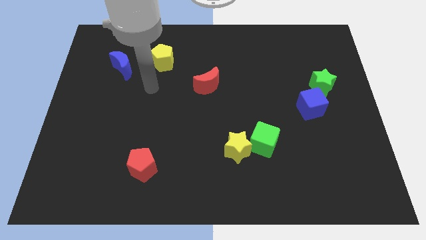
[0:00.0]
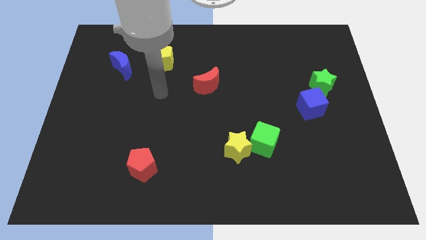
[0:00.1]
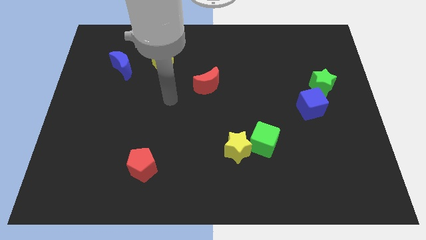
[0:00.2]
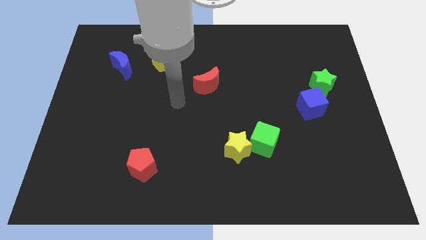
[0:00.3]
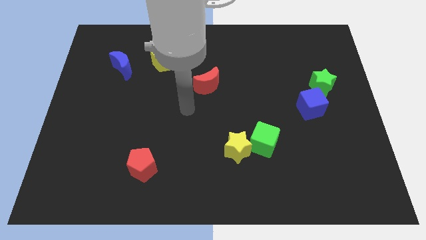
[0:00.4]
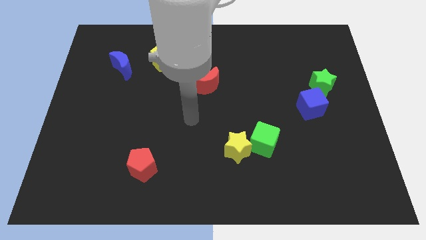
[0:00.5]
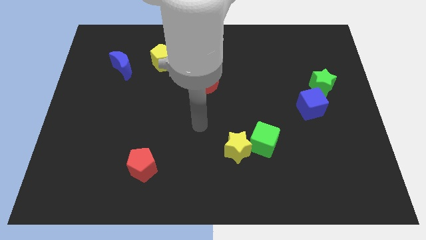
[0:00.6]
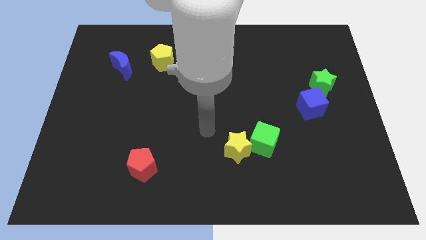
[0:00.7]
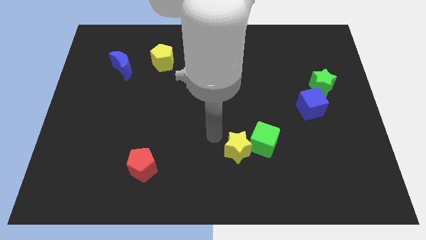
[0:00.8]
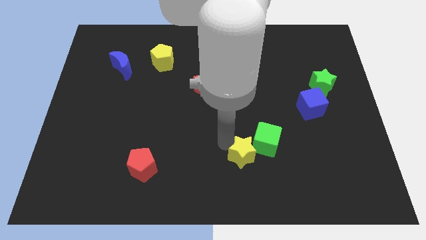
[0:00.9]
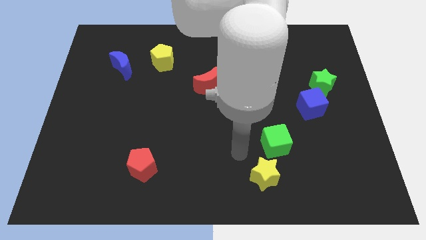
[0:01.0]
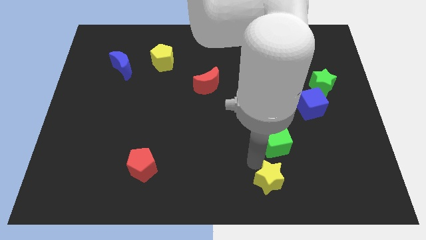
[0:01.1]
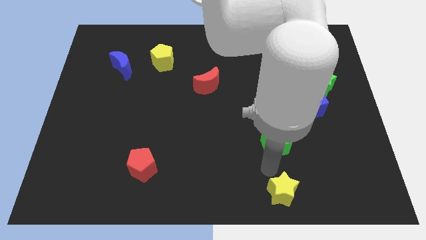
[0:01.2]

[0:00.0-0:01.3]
pull the green cube apart from the yellow star

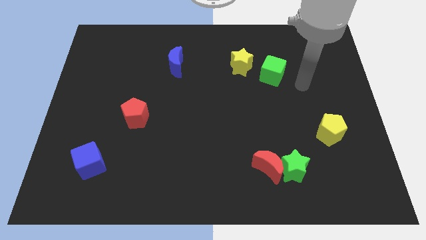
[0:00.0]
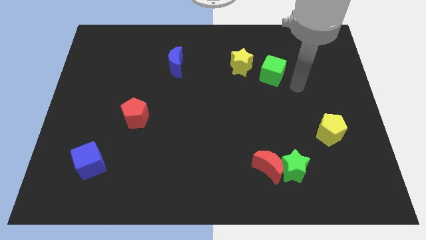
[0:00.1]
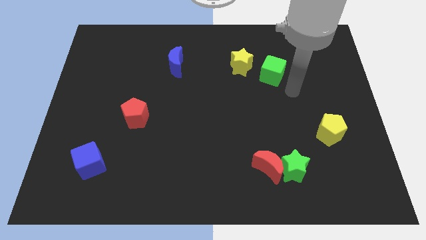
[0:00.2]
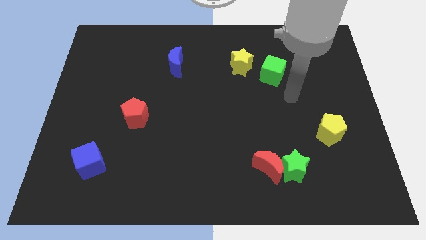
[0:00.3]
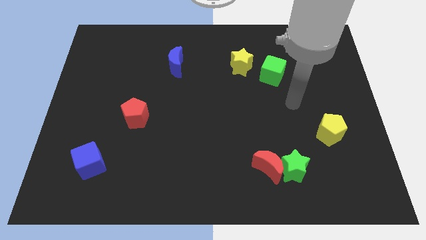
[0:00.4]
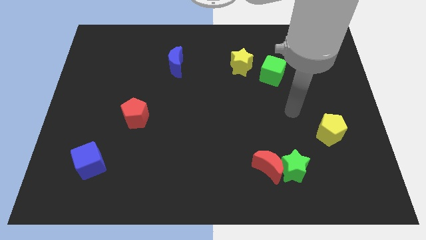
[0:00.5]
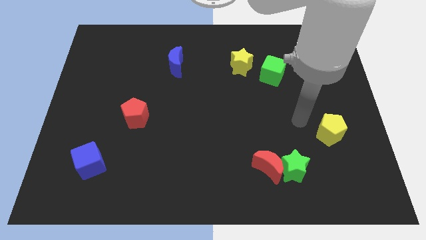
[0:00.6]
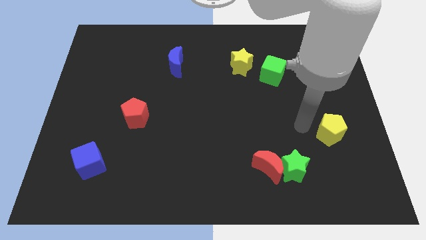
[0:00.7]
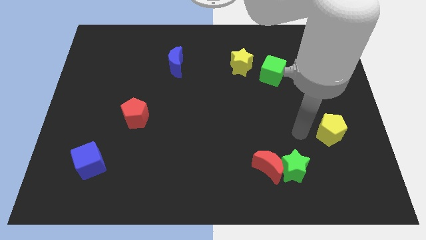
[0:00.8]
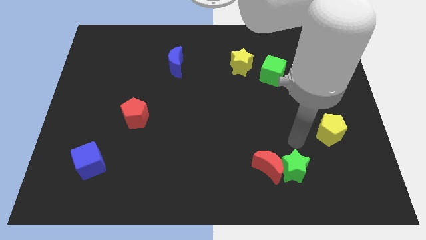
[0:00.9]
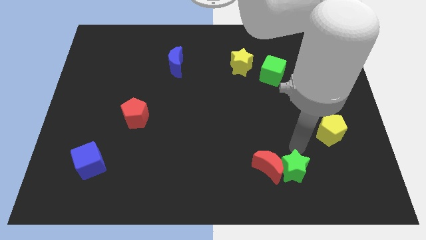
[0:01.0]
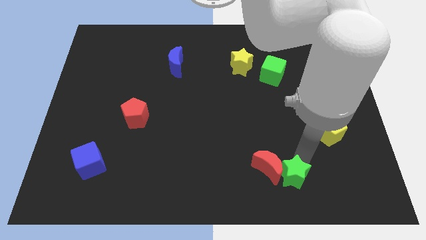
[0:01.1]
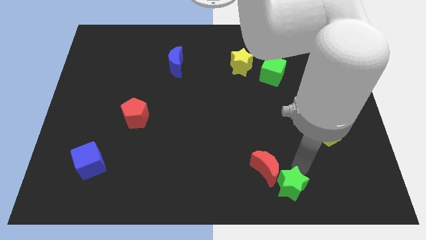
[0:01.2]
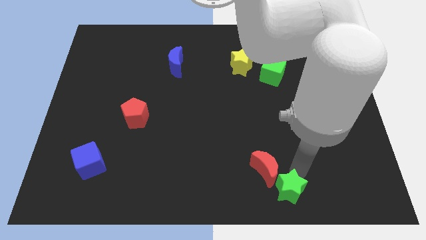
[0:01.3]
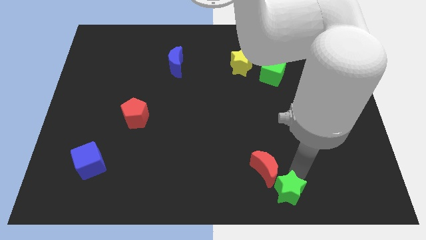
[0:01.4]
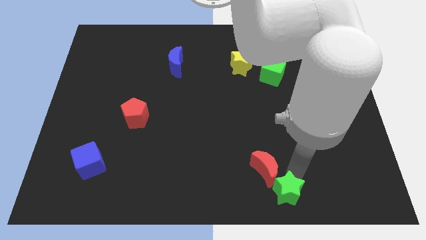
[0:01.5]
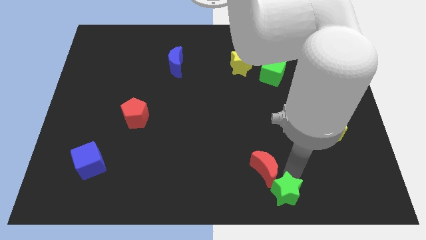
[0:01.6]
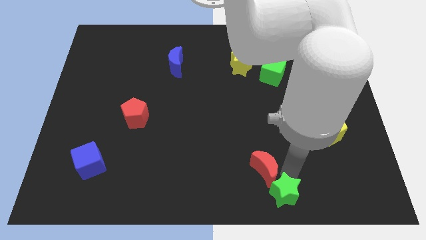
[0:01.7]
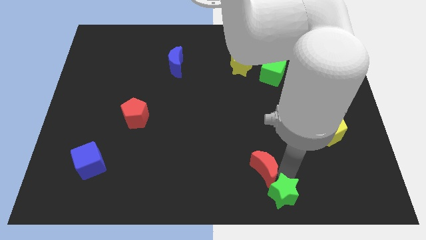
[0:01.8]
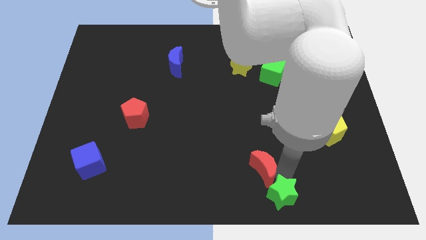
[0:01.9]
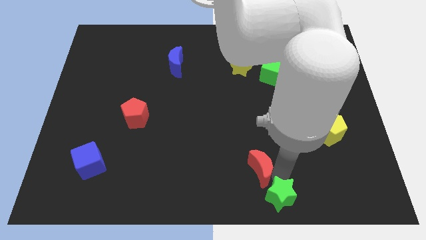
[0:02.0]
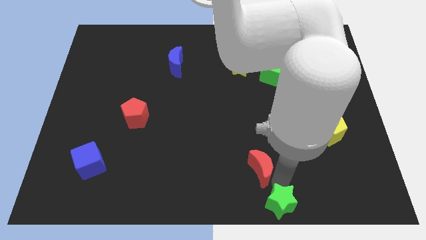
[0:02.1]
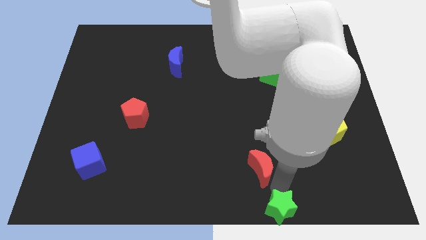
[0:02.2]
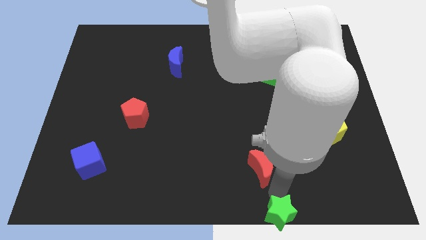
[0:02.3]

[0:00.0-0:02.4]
pull the red moon apart from the green star

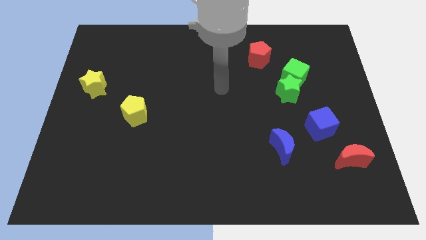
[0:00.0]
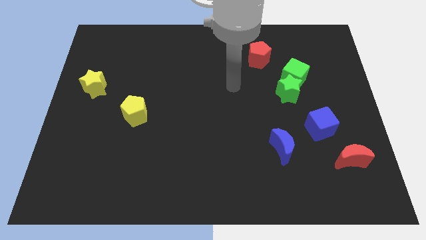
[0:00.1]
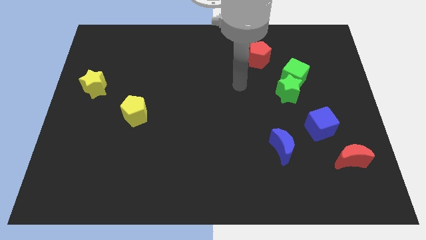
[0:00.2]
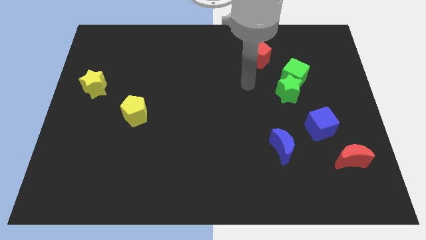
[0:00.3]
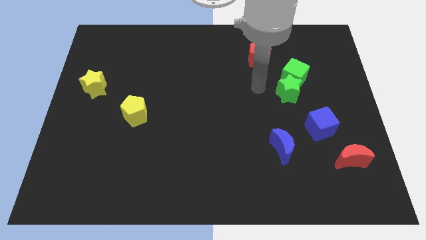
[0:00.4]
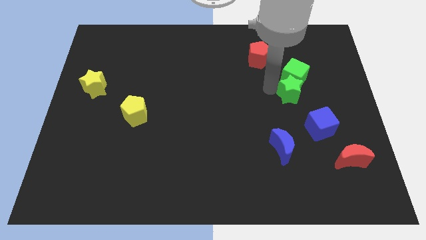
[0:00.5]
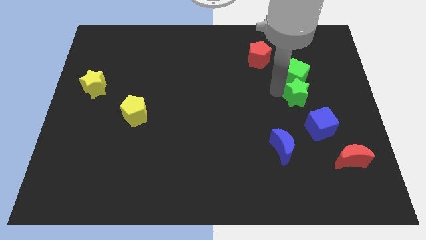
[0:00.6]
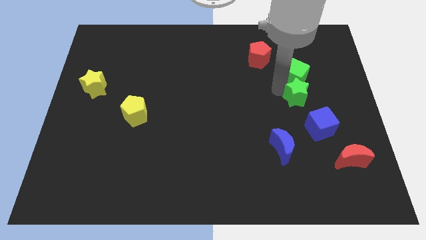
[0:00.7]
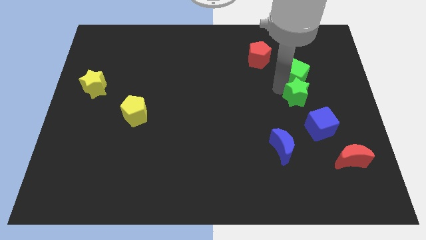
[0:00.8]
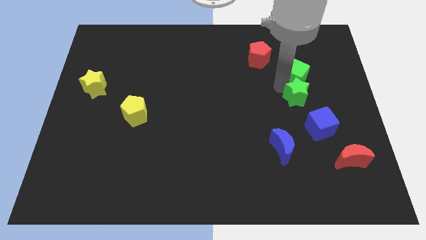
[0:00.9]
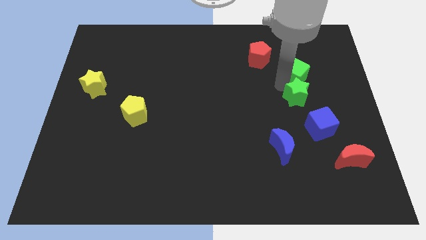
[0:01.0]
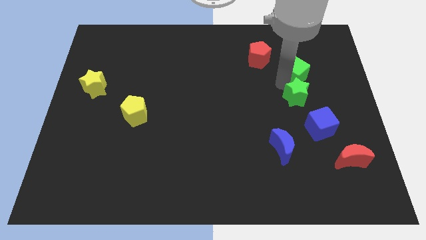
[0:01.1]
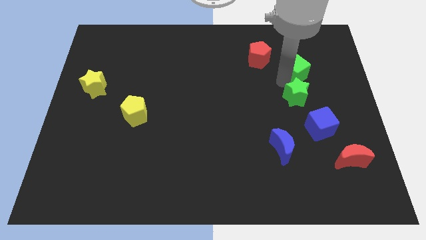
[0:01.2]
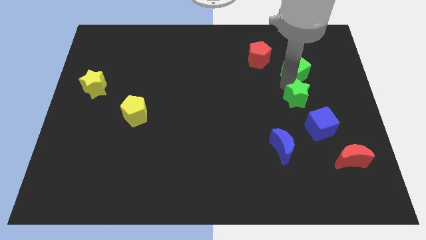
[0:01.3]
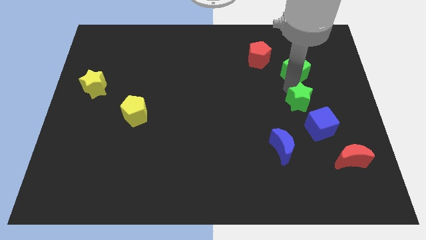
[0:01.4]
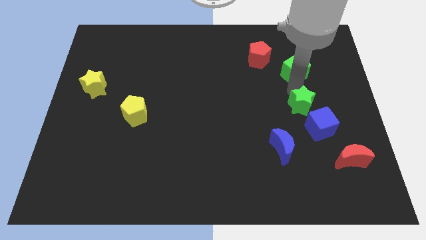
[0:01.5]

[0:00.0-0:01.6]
pull the green cube apart from the green star

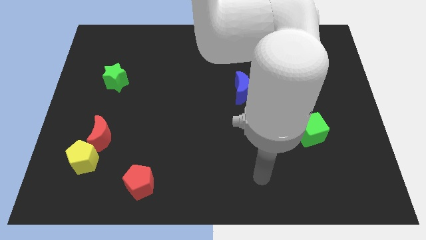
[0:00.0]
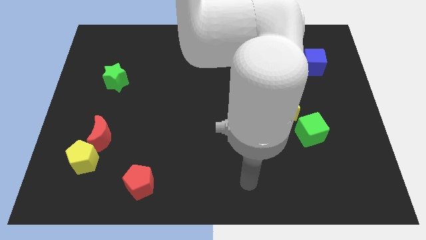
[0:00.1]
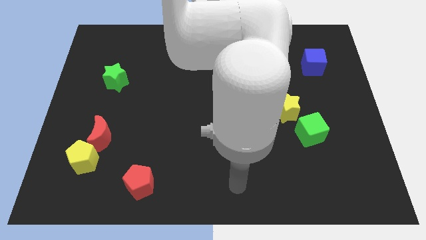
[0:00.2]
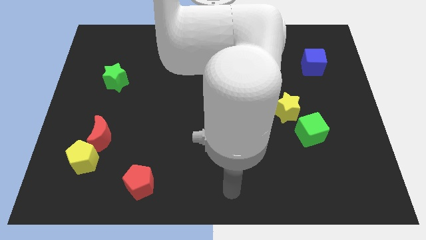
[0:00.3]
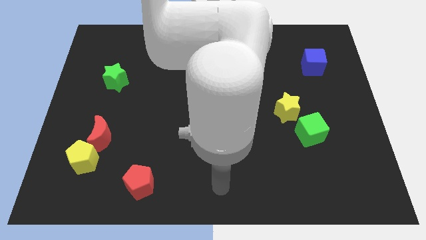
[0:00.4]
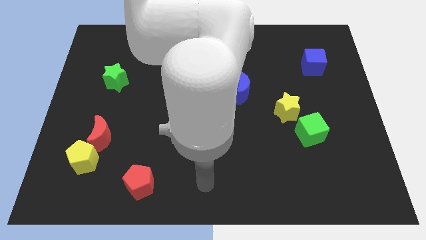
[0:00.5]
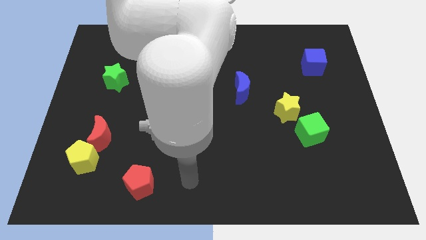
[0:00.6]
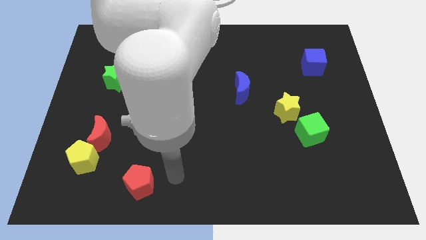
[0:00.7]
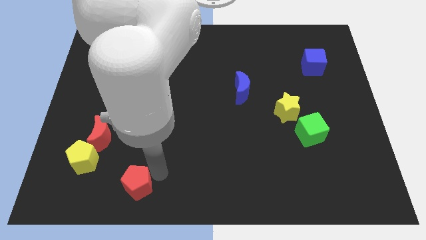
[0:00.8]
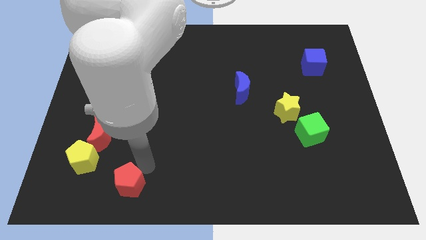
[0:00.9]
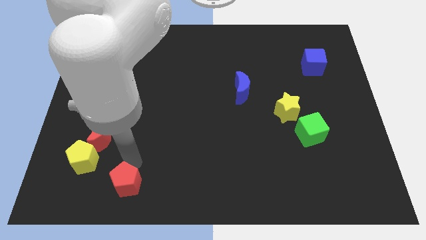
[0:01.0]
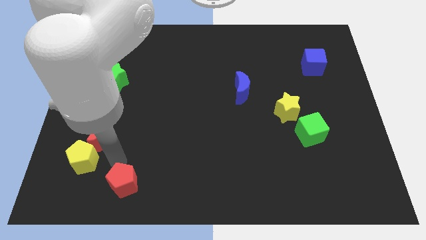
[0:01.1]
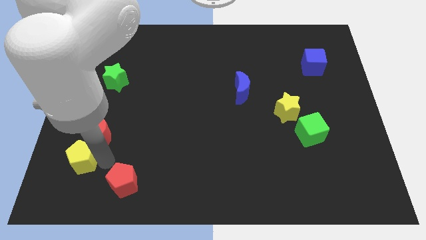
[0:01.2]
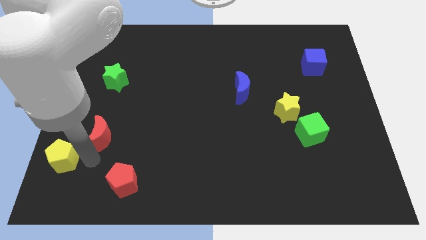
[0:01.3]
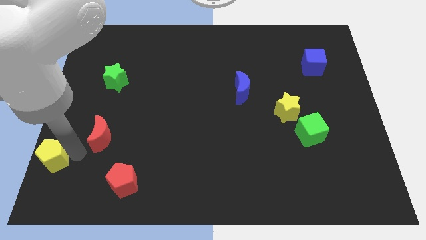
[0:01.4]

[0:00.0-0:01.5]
move the red moon away from the yellow pentagon

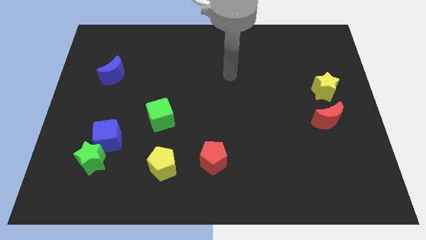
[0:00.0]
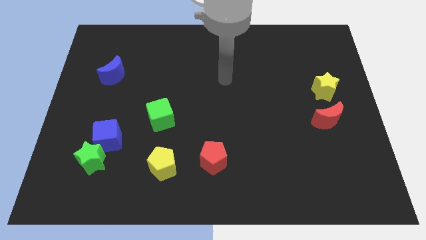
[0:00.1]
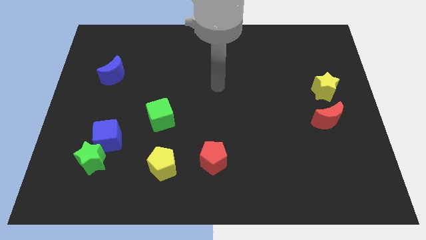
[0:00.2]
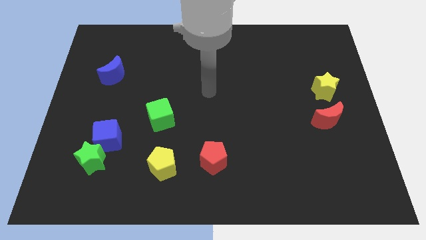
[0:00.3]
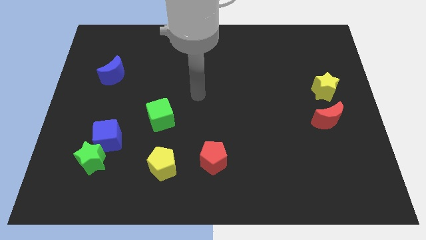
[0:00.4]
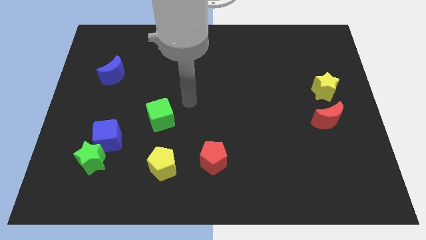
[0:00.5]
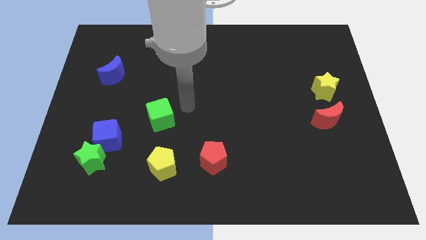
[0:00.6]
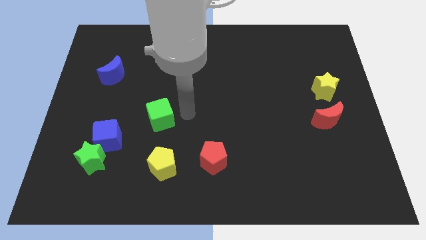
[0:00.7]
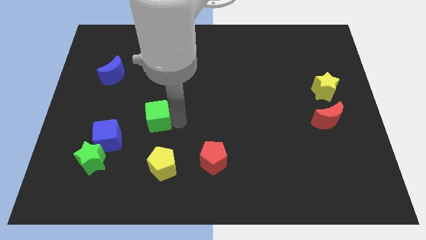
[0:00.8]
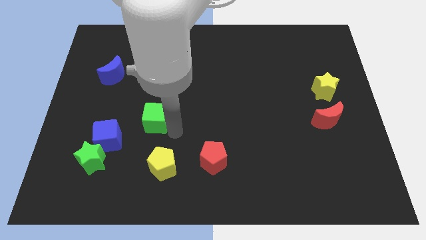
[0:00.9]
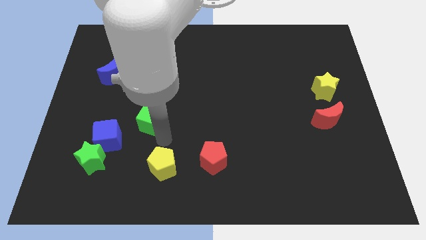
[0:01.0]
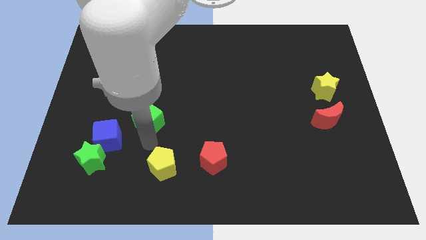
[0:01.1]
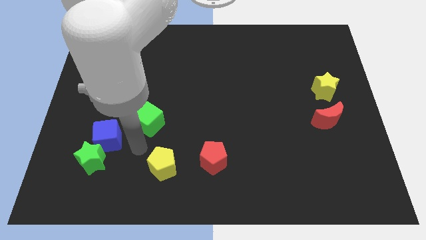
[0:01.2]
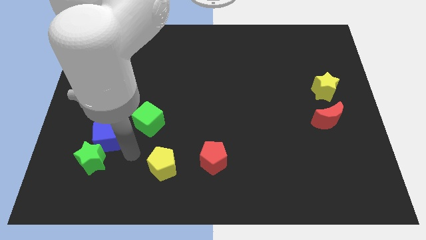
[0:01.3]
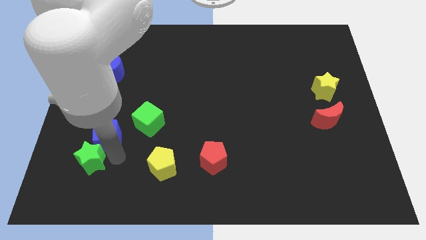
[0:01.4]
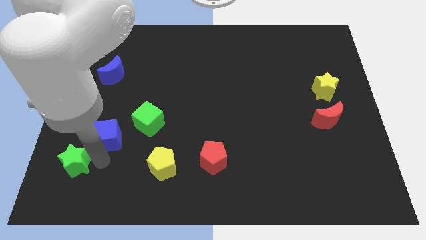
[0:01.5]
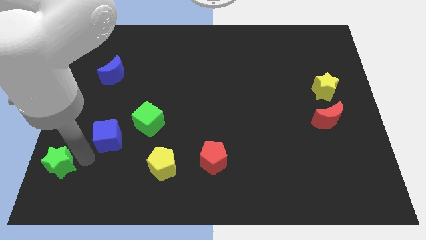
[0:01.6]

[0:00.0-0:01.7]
separate the blue cube from the green star

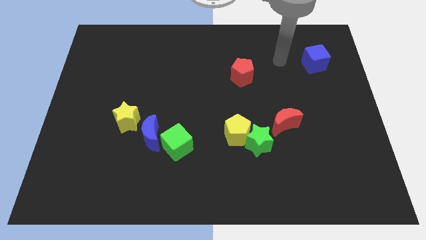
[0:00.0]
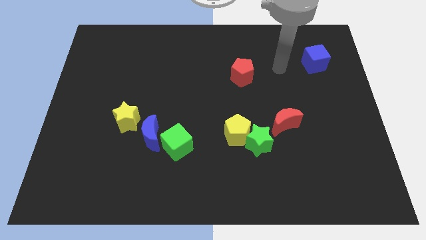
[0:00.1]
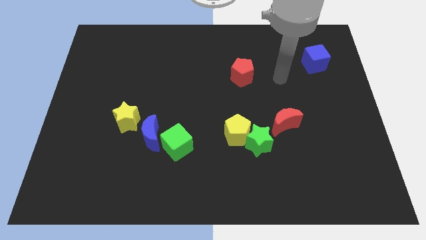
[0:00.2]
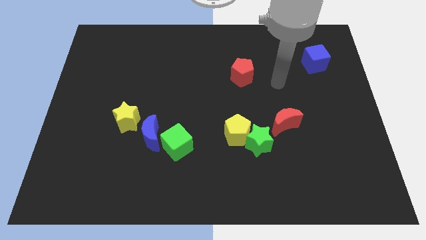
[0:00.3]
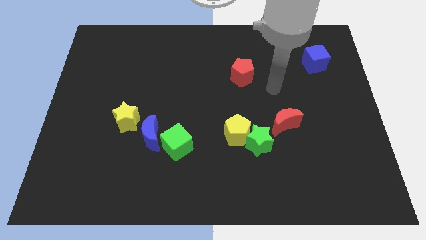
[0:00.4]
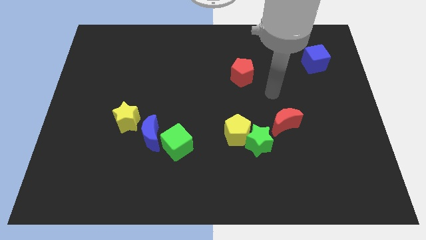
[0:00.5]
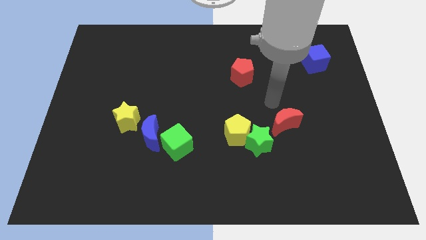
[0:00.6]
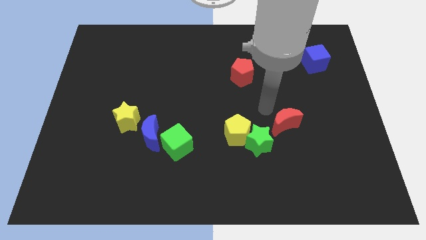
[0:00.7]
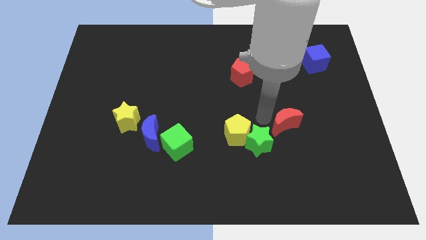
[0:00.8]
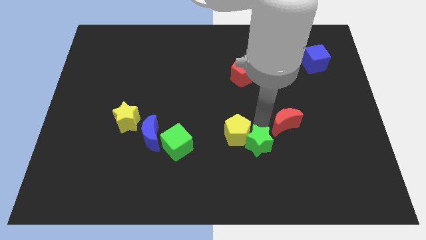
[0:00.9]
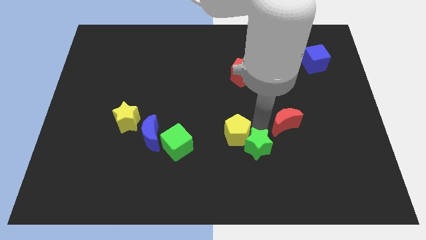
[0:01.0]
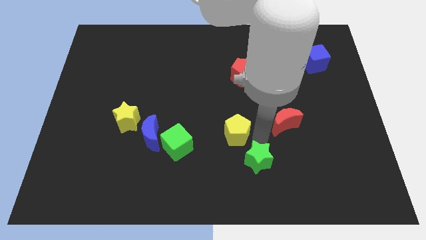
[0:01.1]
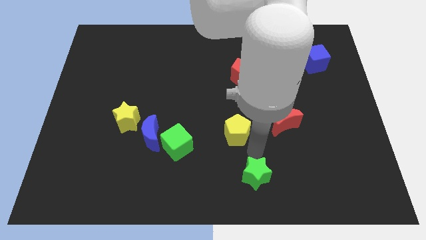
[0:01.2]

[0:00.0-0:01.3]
move the yellow pentagon away from the green star
